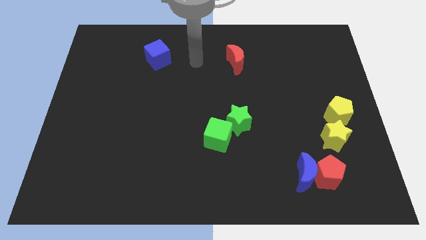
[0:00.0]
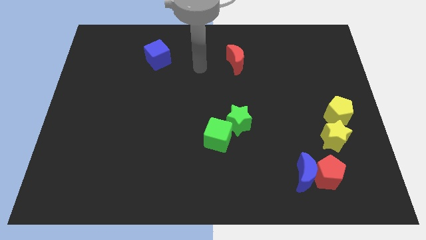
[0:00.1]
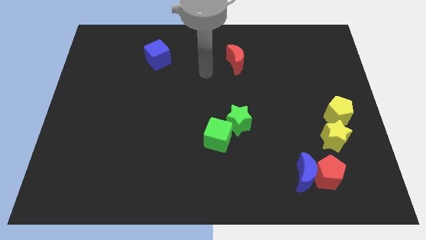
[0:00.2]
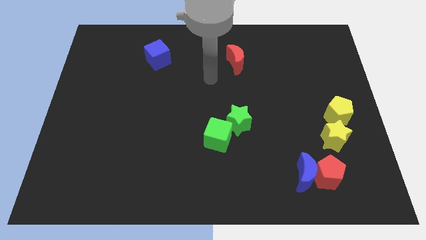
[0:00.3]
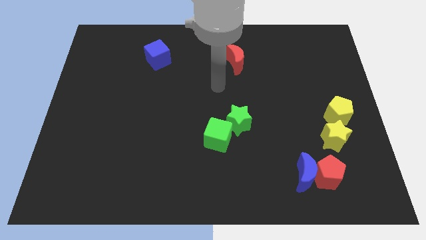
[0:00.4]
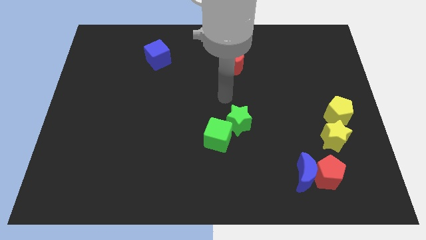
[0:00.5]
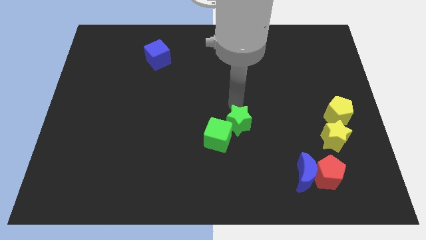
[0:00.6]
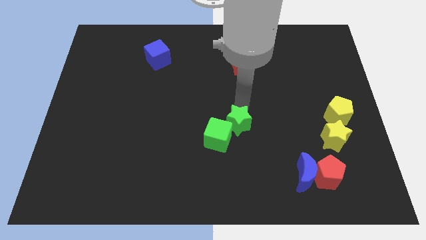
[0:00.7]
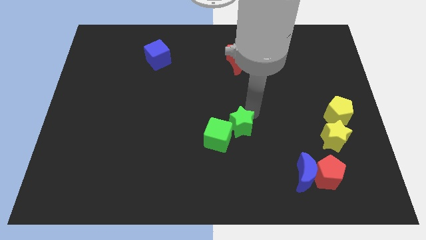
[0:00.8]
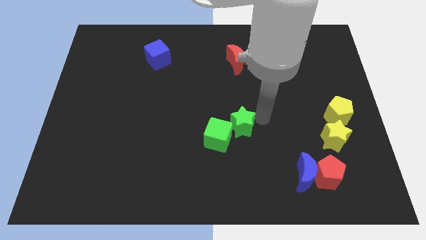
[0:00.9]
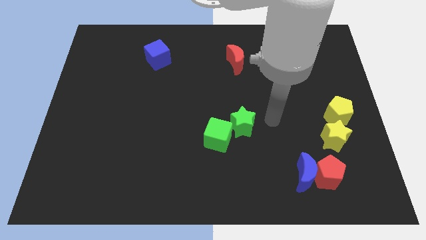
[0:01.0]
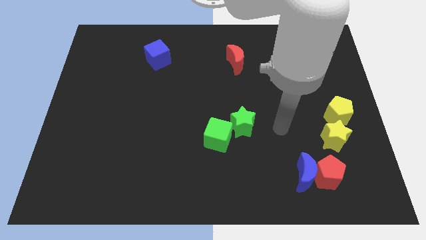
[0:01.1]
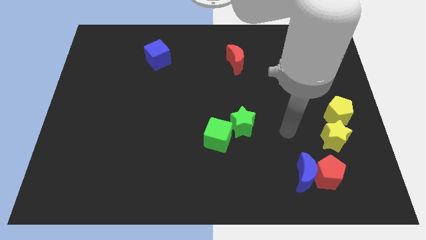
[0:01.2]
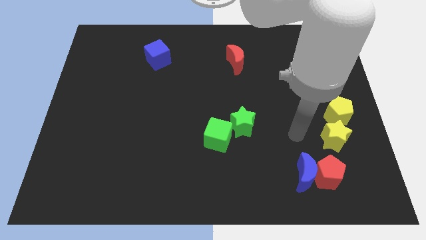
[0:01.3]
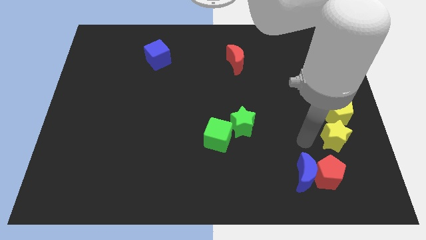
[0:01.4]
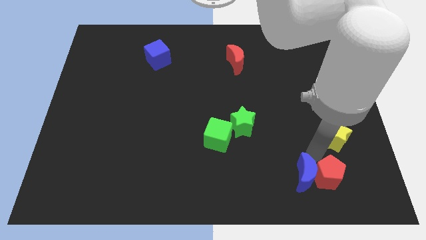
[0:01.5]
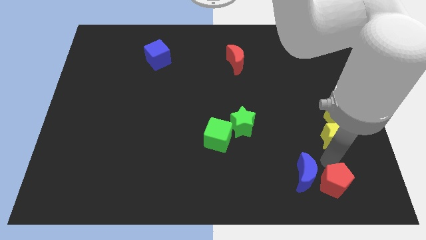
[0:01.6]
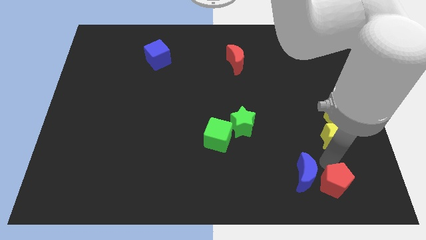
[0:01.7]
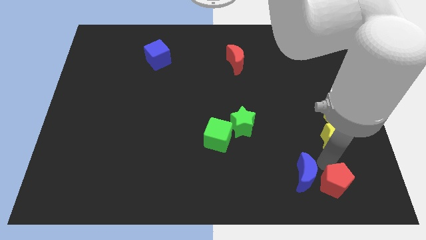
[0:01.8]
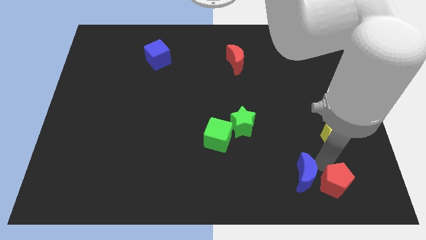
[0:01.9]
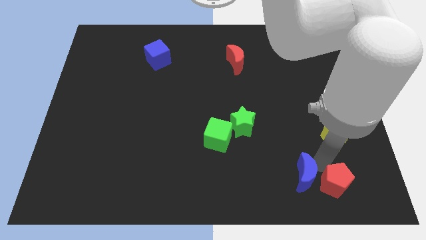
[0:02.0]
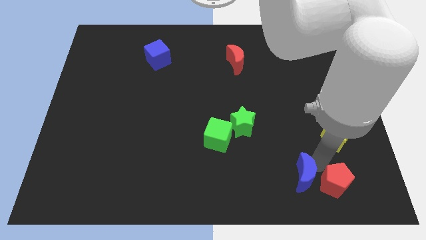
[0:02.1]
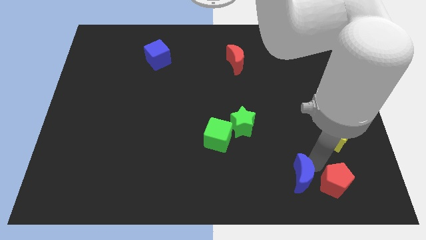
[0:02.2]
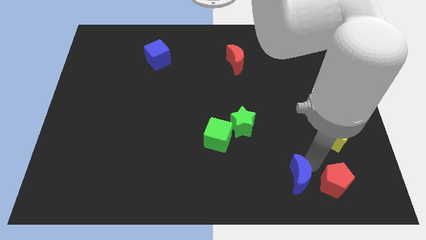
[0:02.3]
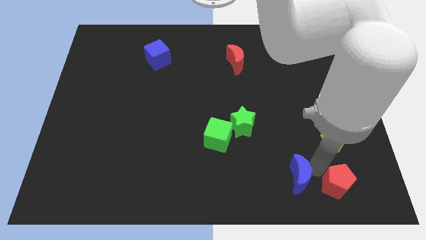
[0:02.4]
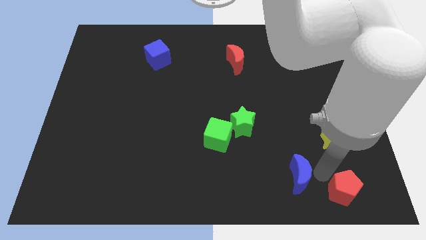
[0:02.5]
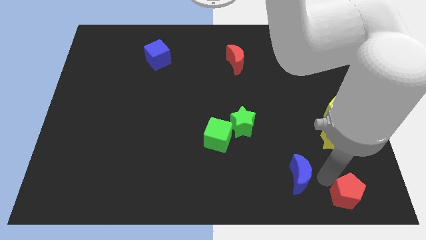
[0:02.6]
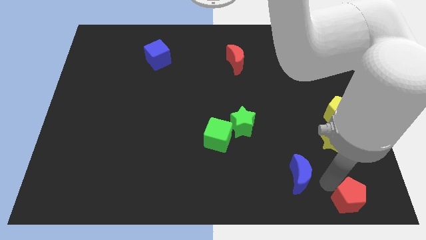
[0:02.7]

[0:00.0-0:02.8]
move the blue moon away from the red pentagon

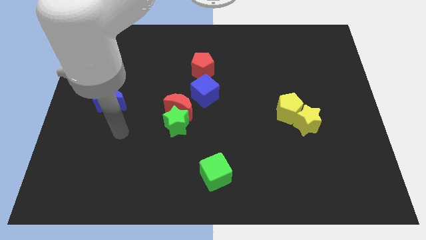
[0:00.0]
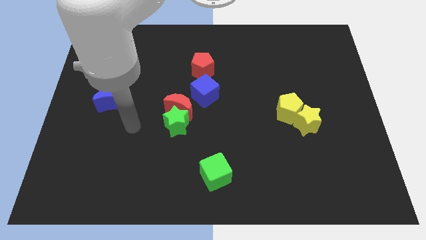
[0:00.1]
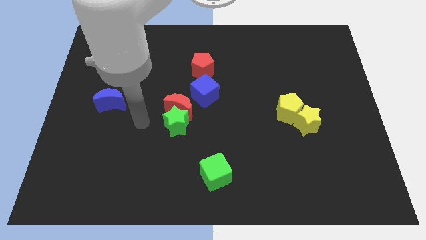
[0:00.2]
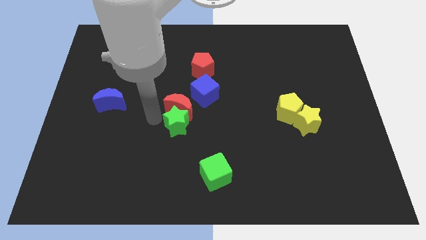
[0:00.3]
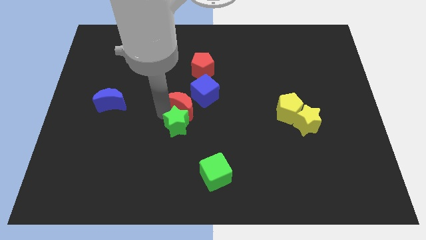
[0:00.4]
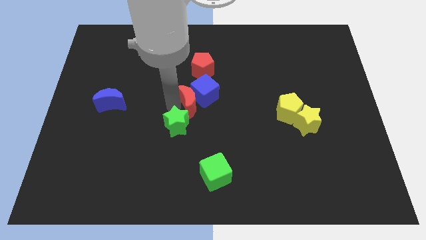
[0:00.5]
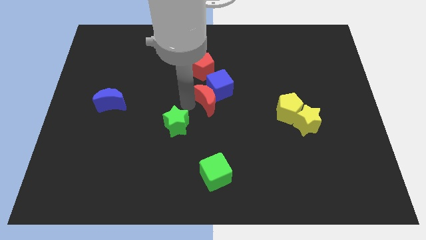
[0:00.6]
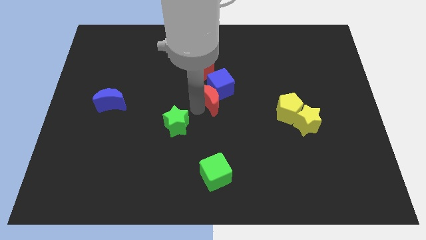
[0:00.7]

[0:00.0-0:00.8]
pull the green star apart from the red moon

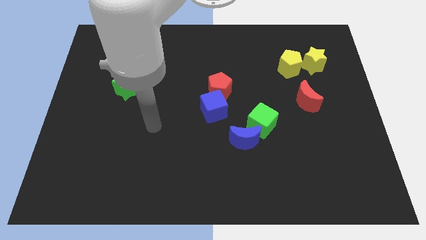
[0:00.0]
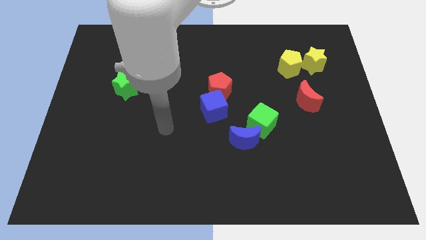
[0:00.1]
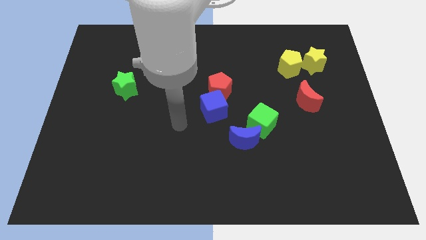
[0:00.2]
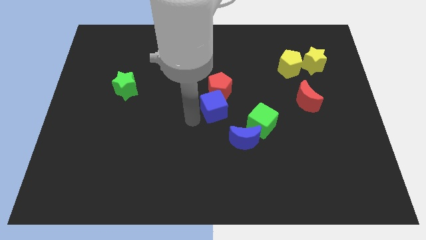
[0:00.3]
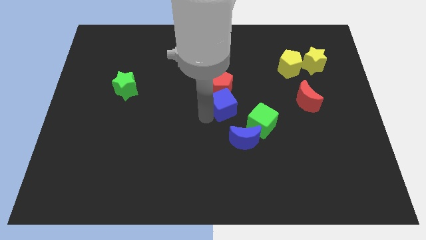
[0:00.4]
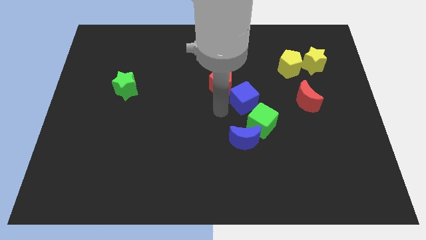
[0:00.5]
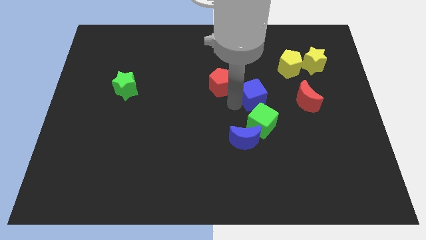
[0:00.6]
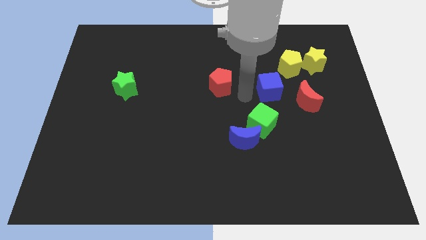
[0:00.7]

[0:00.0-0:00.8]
pull the red pentagon apart from the blue cube

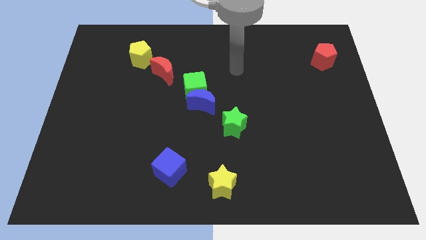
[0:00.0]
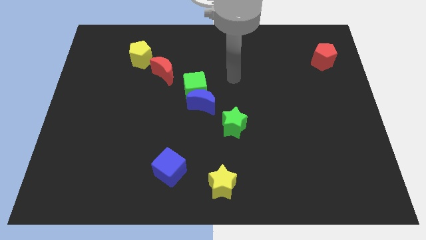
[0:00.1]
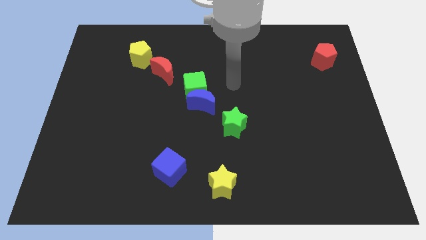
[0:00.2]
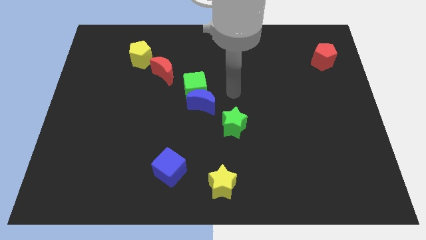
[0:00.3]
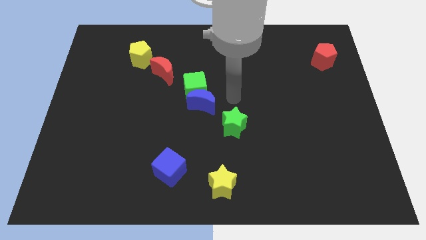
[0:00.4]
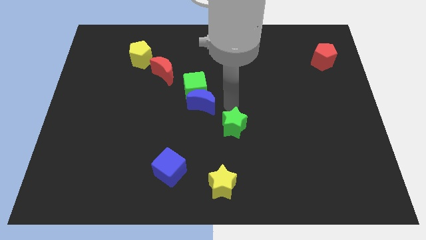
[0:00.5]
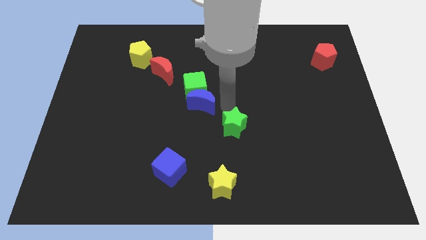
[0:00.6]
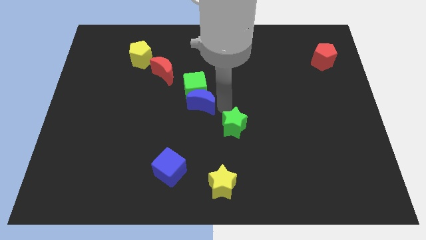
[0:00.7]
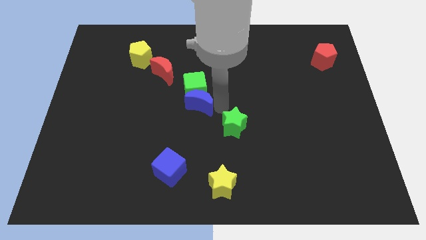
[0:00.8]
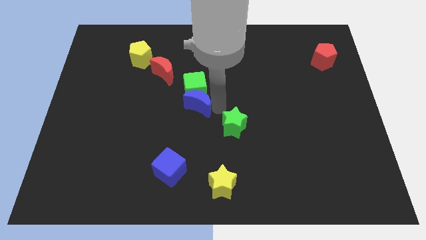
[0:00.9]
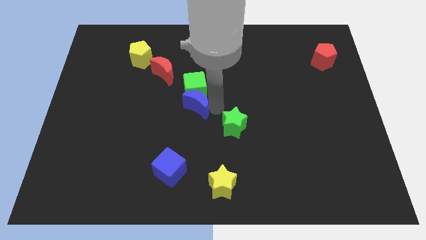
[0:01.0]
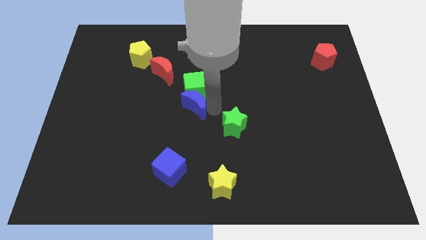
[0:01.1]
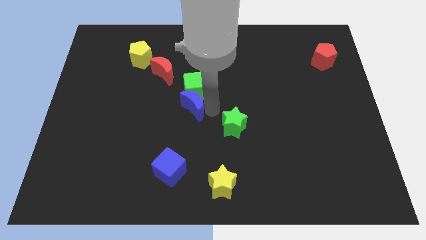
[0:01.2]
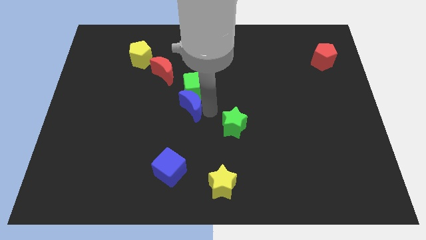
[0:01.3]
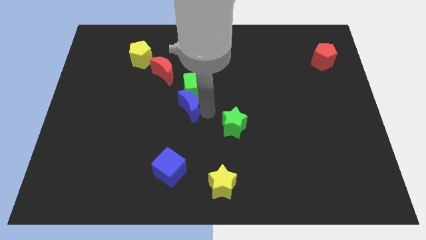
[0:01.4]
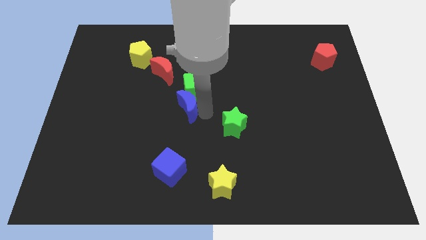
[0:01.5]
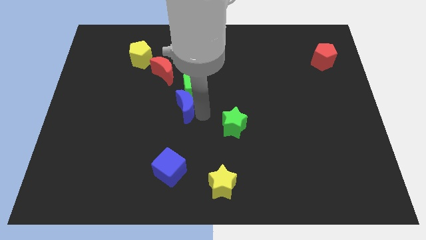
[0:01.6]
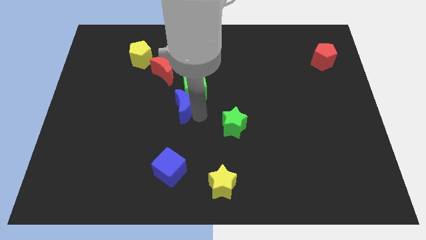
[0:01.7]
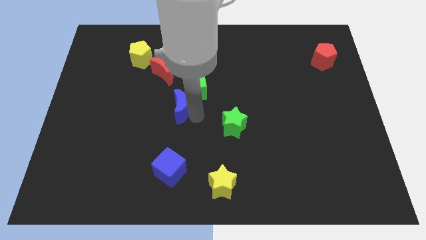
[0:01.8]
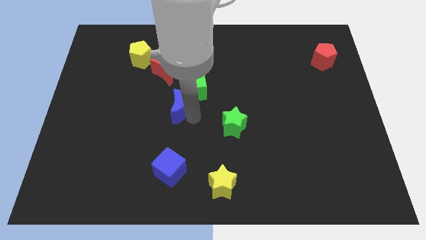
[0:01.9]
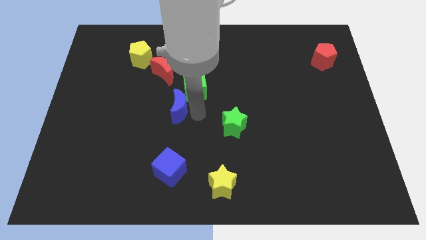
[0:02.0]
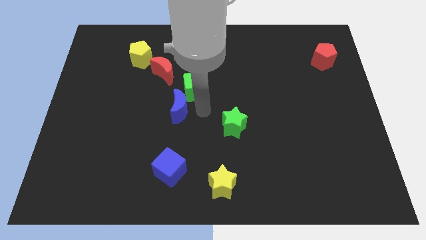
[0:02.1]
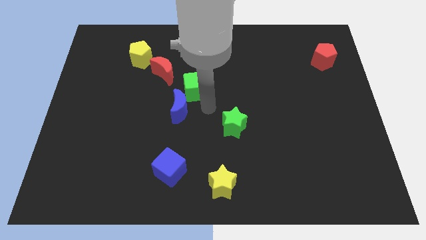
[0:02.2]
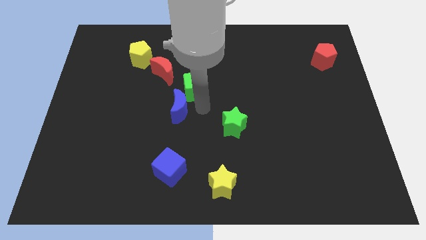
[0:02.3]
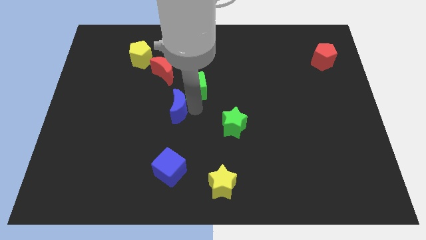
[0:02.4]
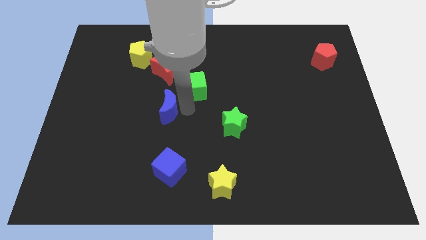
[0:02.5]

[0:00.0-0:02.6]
separate the blue moon from the green cube and green star

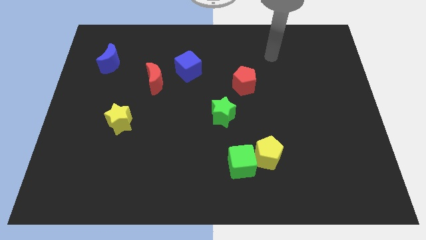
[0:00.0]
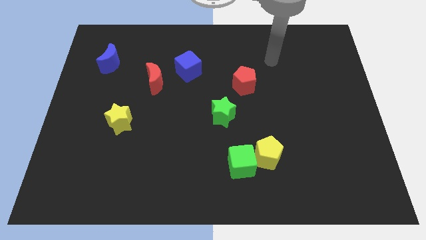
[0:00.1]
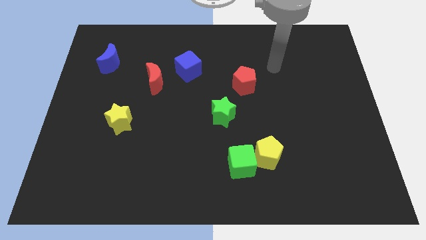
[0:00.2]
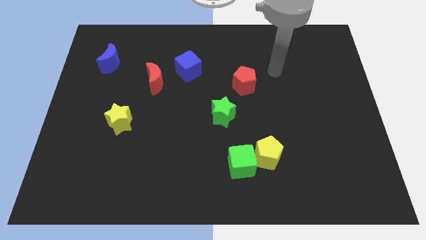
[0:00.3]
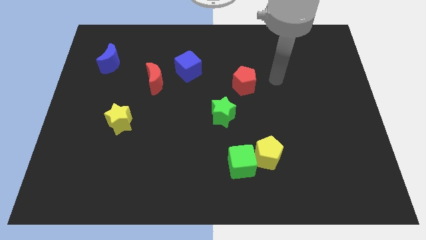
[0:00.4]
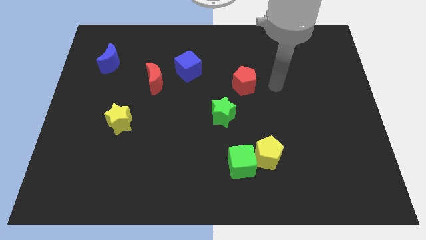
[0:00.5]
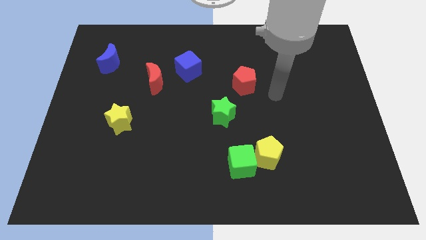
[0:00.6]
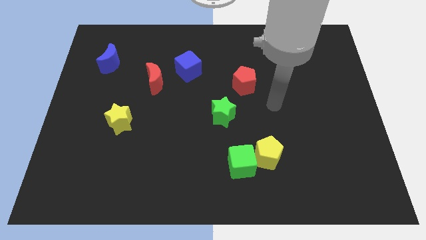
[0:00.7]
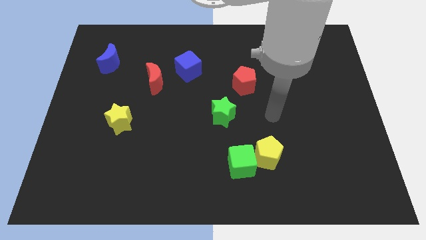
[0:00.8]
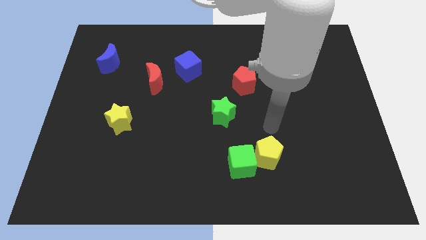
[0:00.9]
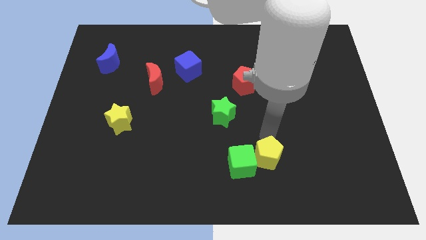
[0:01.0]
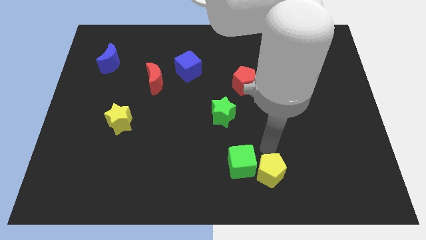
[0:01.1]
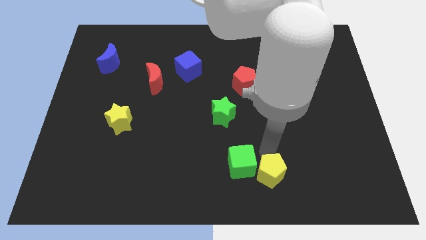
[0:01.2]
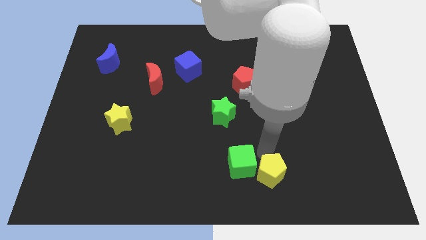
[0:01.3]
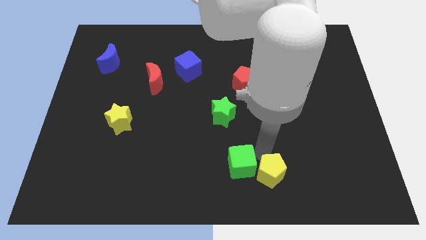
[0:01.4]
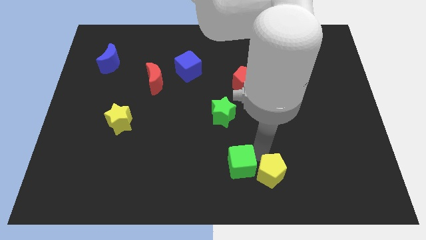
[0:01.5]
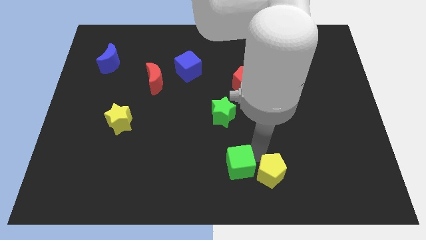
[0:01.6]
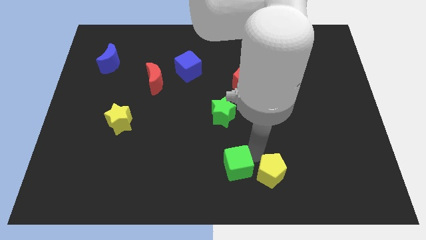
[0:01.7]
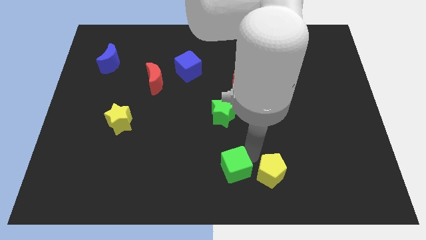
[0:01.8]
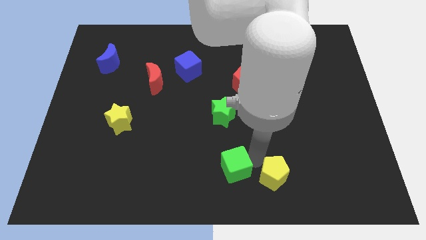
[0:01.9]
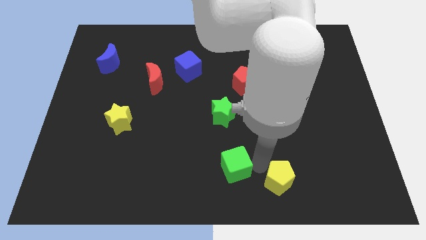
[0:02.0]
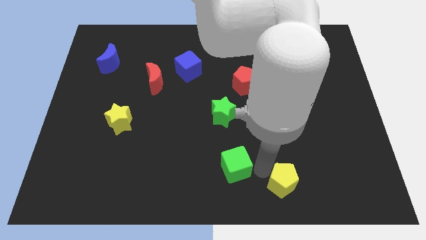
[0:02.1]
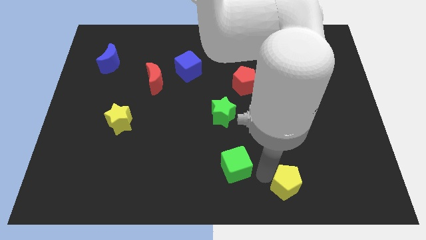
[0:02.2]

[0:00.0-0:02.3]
pull the green cube apart from the yellow pentagon
